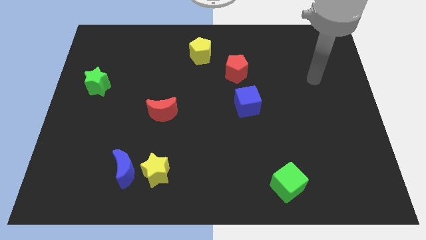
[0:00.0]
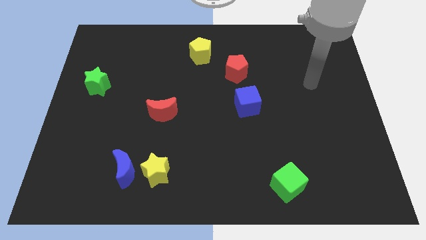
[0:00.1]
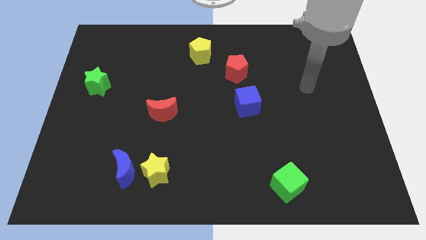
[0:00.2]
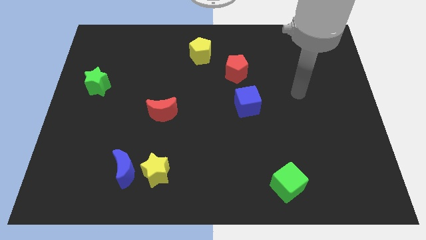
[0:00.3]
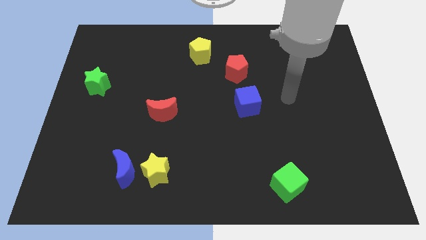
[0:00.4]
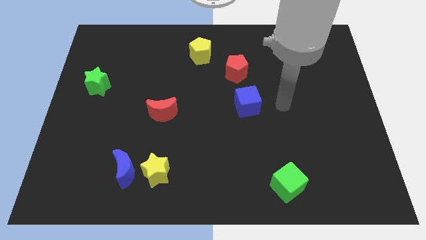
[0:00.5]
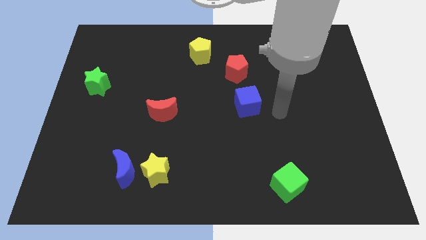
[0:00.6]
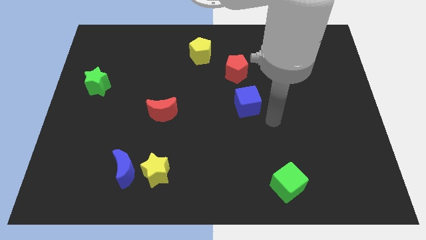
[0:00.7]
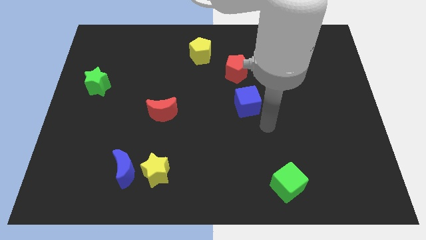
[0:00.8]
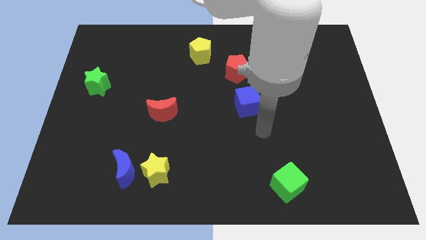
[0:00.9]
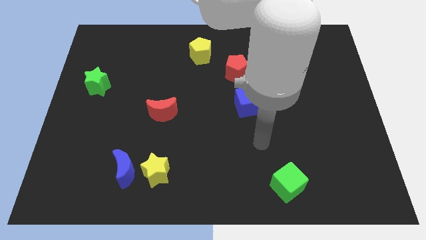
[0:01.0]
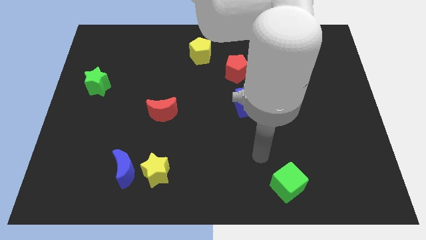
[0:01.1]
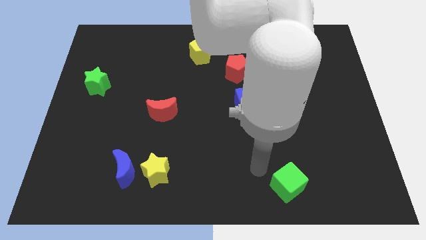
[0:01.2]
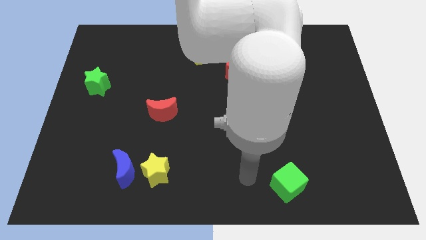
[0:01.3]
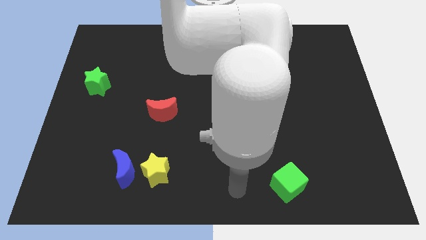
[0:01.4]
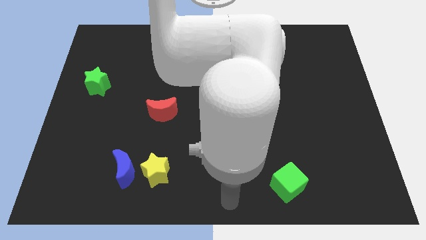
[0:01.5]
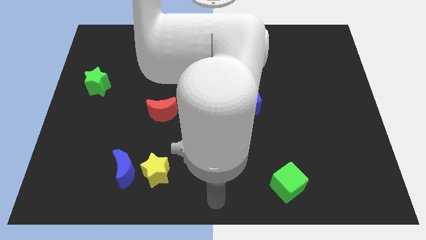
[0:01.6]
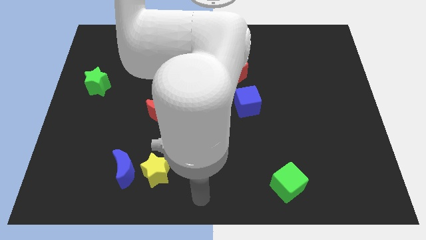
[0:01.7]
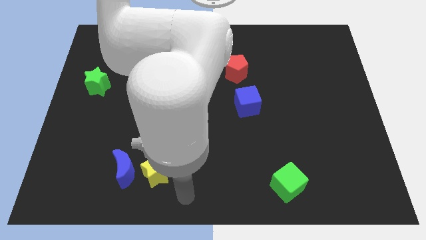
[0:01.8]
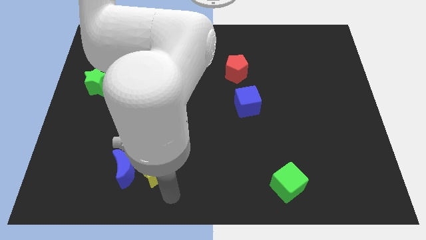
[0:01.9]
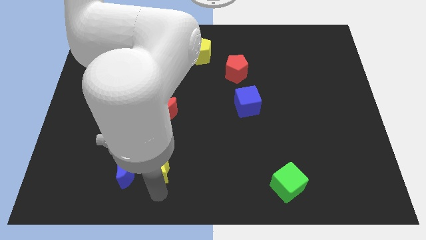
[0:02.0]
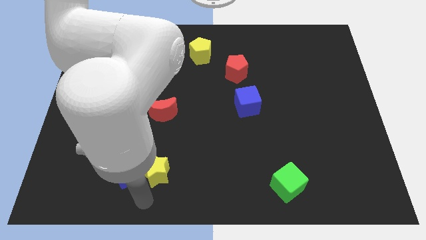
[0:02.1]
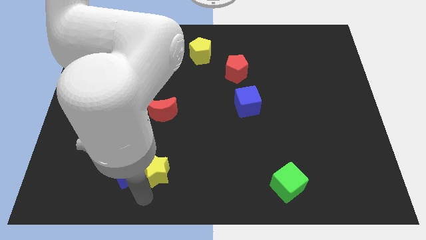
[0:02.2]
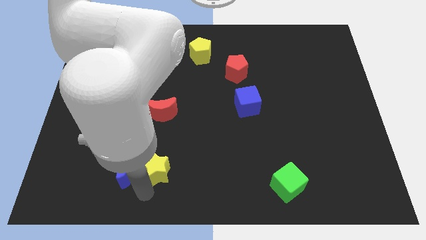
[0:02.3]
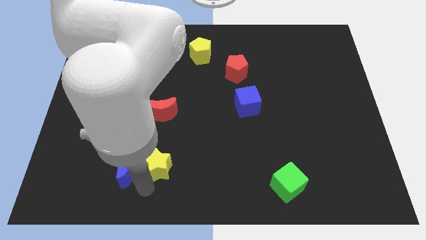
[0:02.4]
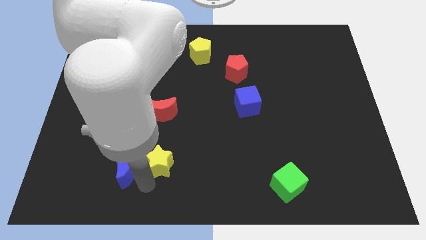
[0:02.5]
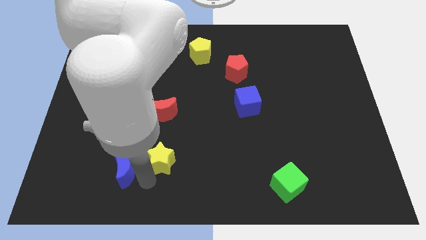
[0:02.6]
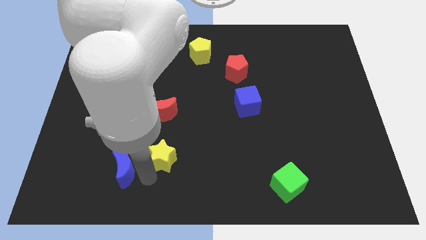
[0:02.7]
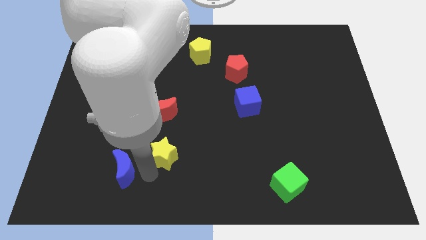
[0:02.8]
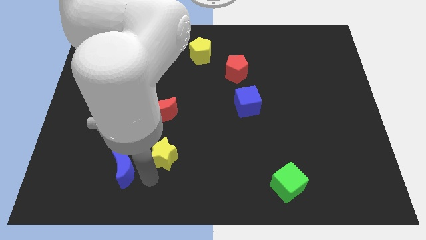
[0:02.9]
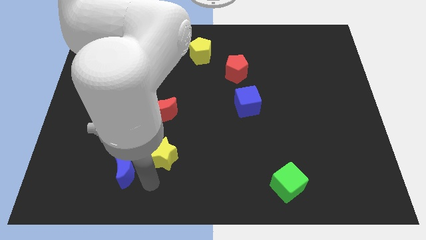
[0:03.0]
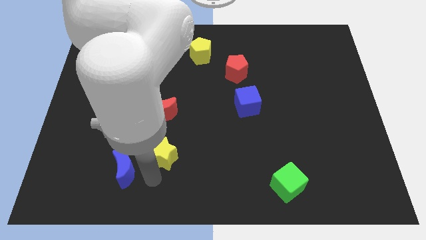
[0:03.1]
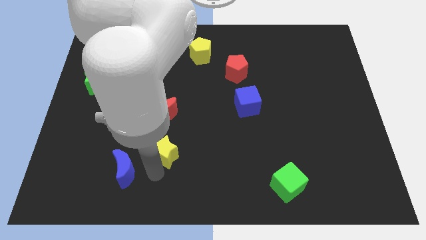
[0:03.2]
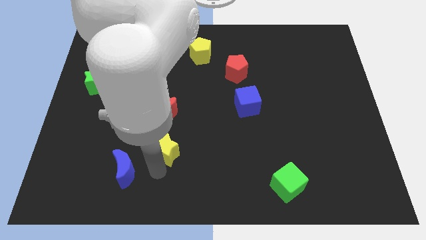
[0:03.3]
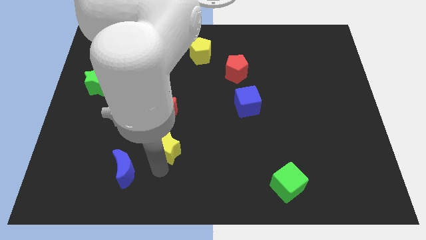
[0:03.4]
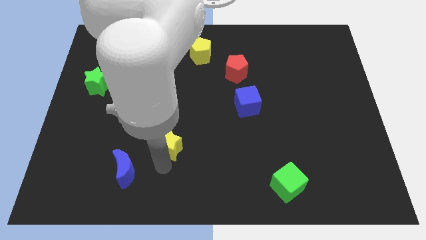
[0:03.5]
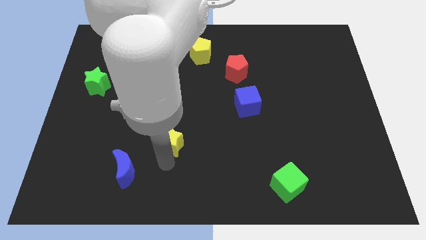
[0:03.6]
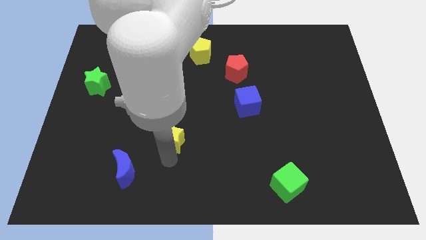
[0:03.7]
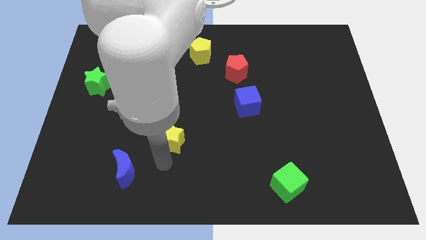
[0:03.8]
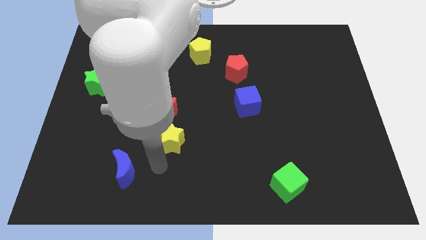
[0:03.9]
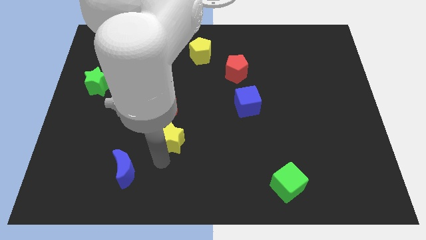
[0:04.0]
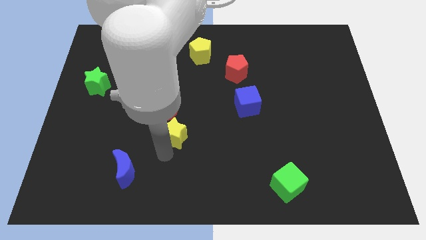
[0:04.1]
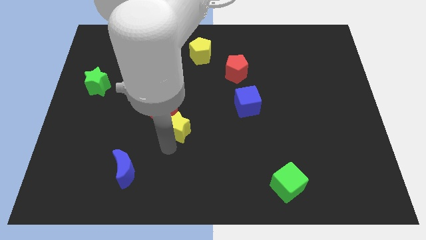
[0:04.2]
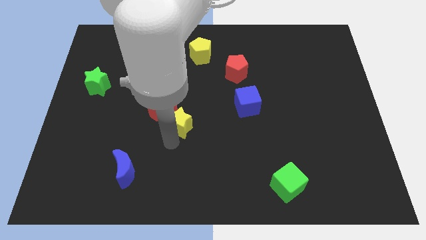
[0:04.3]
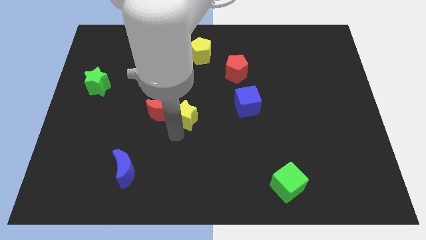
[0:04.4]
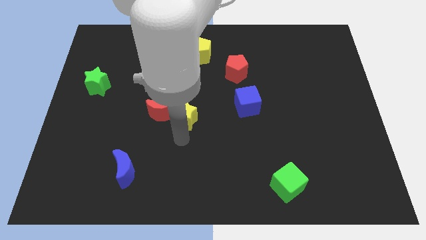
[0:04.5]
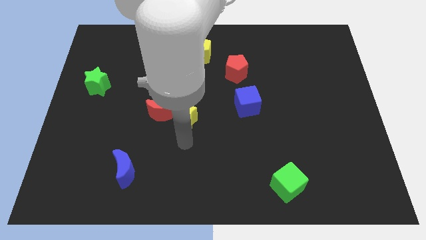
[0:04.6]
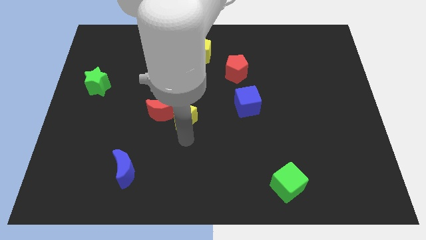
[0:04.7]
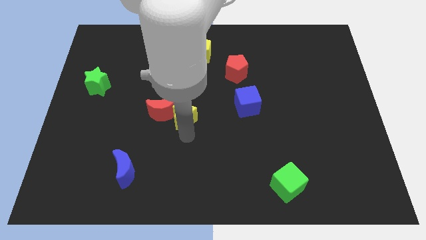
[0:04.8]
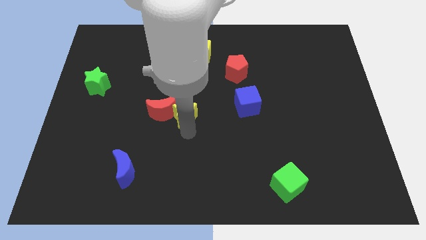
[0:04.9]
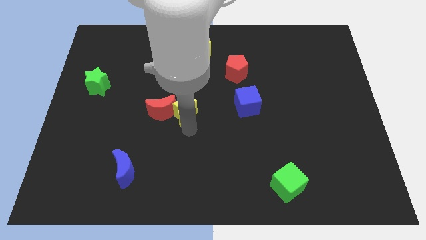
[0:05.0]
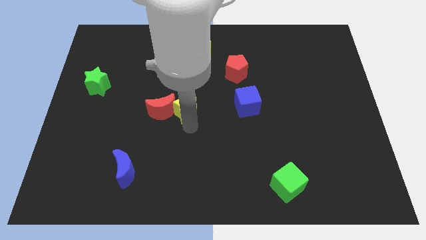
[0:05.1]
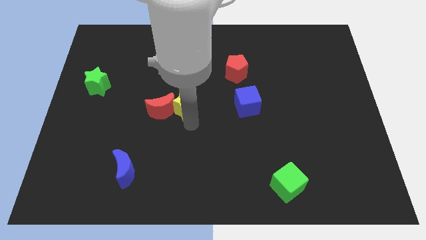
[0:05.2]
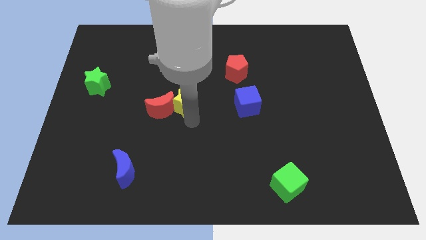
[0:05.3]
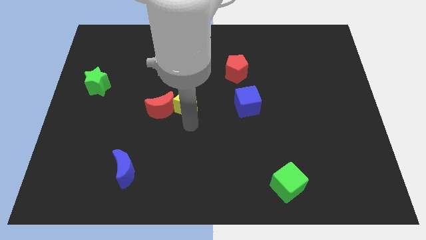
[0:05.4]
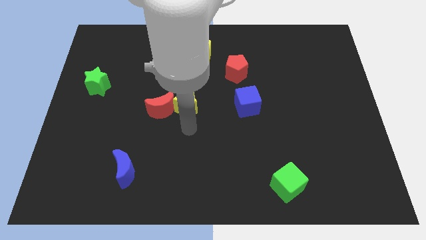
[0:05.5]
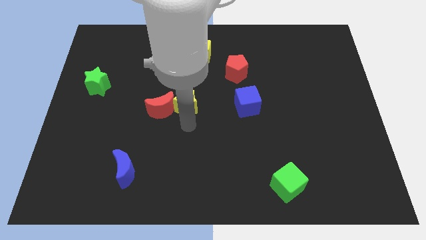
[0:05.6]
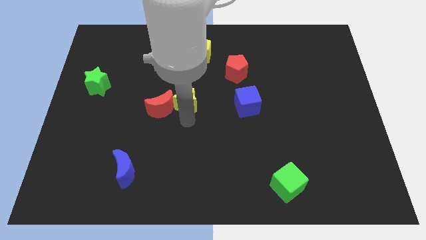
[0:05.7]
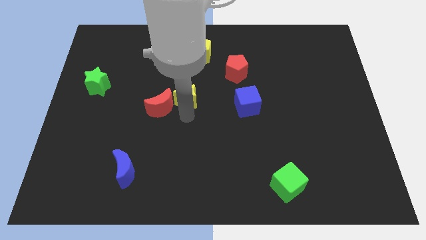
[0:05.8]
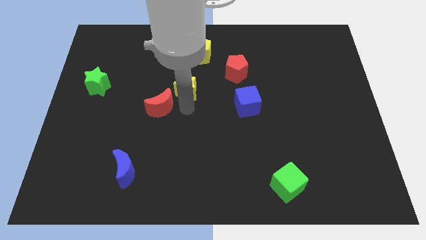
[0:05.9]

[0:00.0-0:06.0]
push the yellow star up

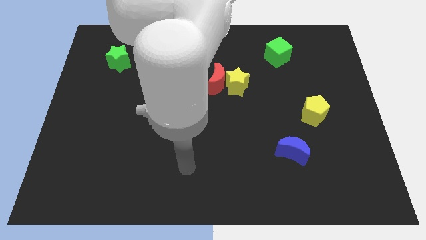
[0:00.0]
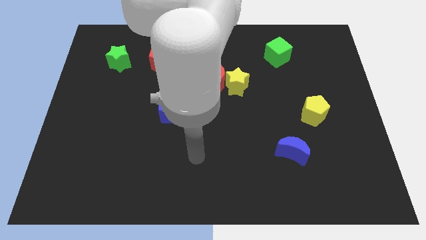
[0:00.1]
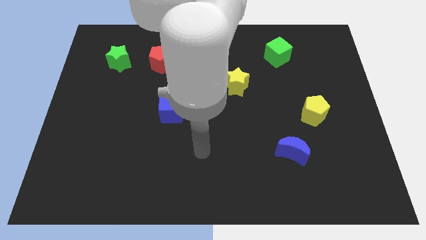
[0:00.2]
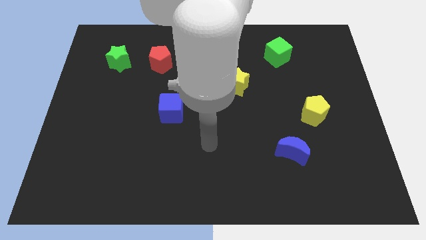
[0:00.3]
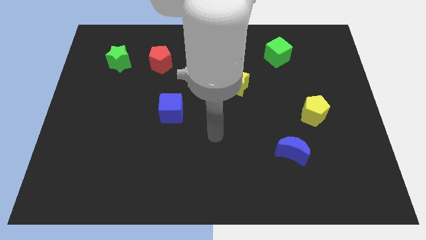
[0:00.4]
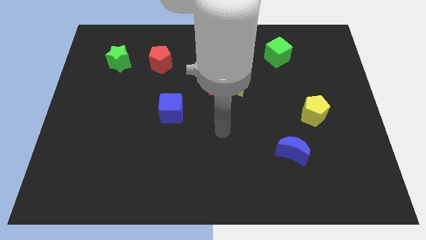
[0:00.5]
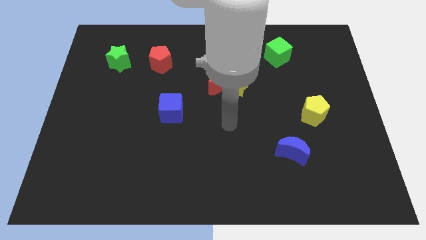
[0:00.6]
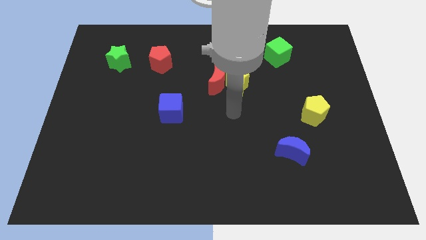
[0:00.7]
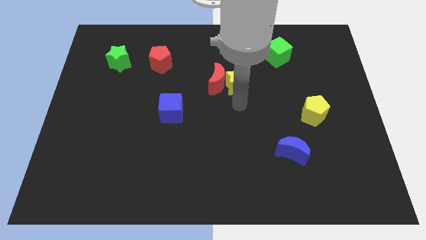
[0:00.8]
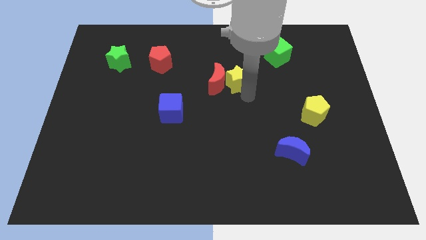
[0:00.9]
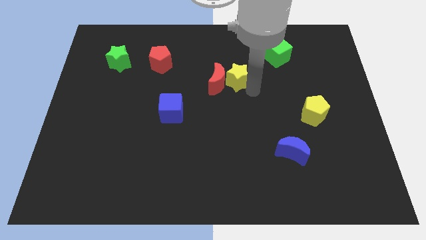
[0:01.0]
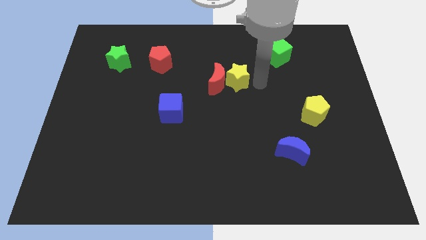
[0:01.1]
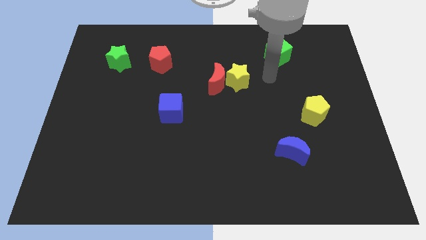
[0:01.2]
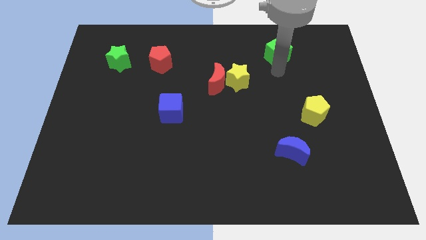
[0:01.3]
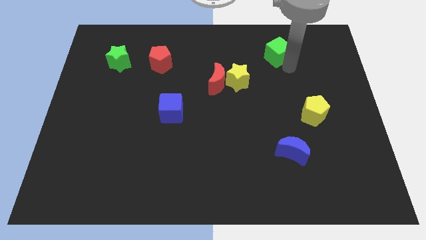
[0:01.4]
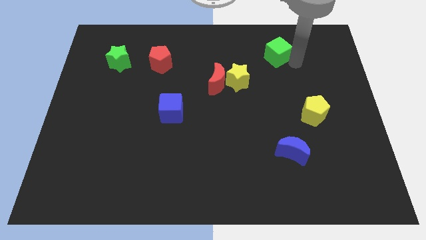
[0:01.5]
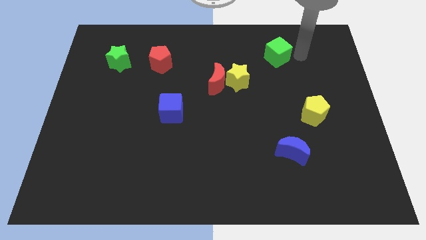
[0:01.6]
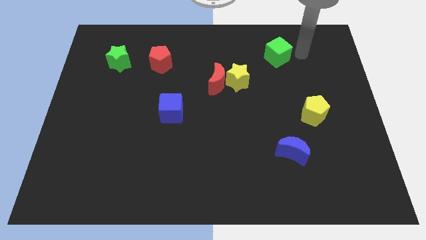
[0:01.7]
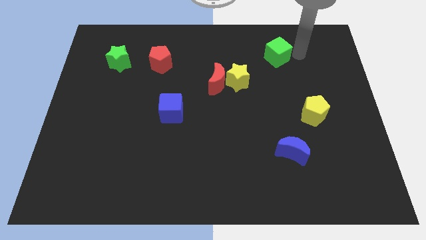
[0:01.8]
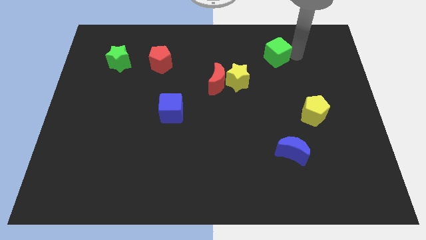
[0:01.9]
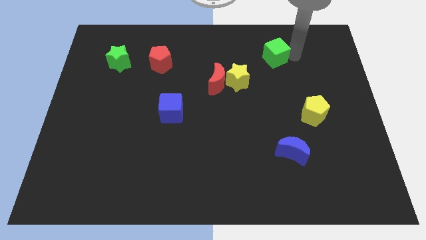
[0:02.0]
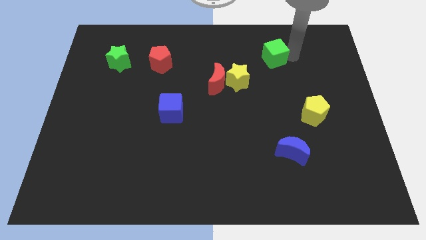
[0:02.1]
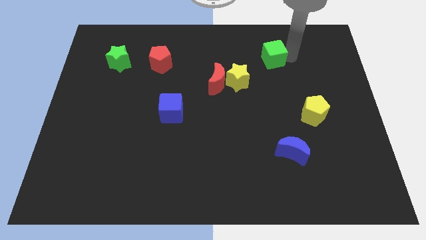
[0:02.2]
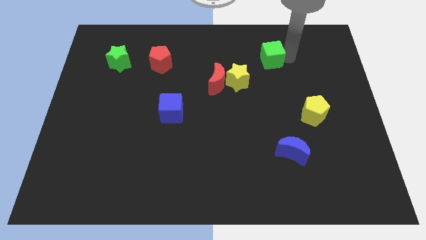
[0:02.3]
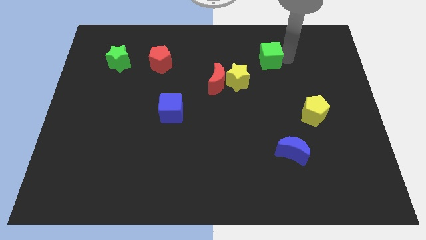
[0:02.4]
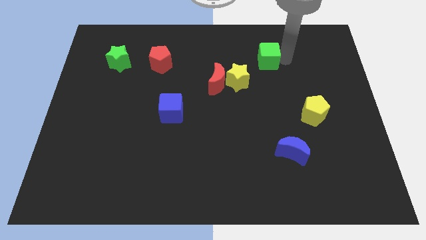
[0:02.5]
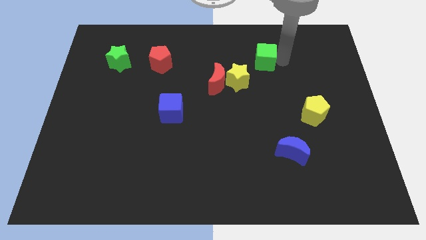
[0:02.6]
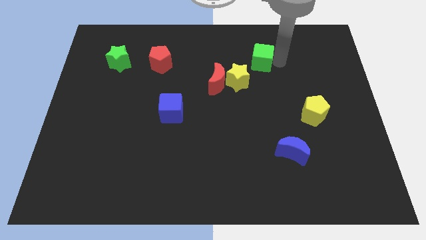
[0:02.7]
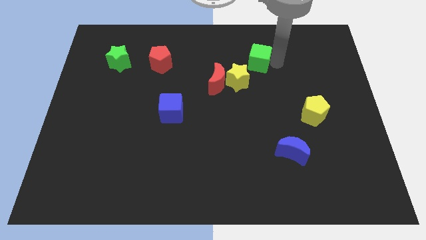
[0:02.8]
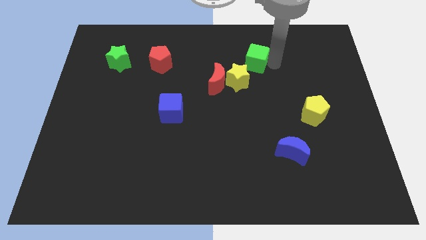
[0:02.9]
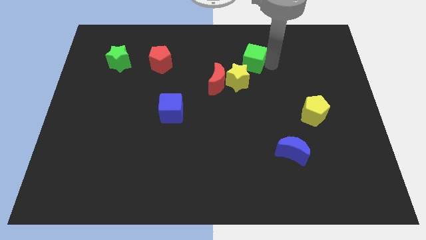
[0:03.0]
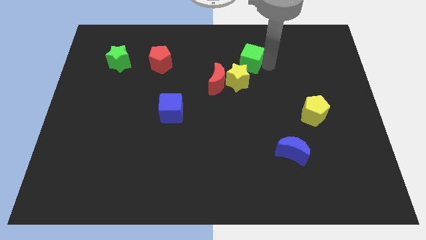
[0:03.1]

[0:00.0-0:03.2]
slightly slide the green cube left
